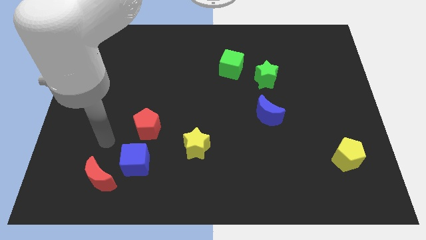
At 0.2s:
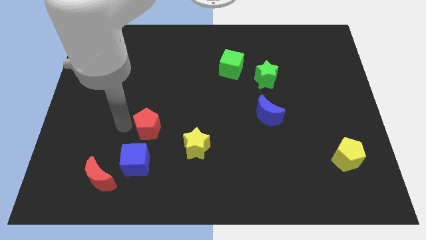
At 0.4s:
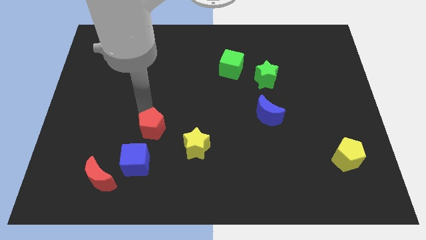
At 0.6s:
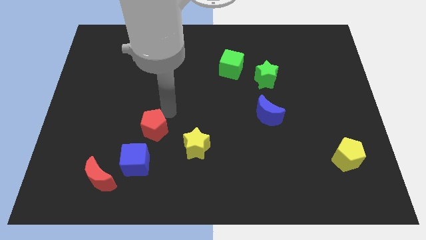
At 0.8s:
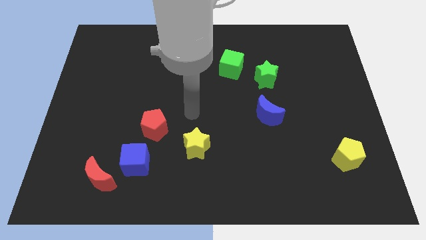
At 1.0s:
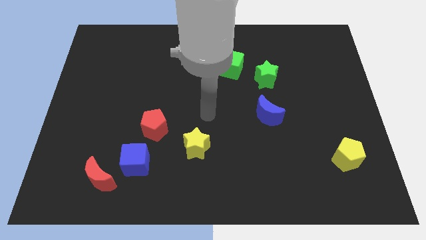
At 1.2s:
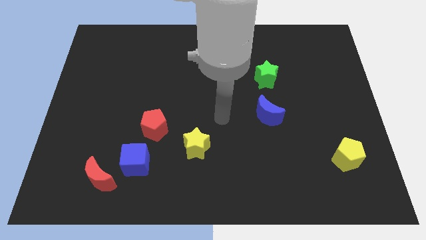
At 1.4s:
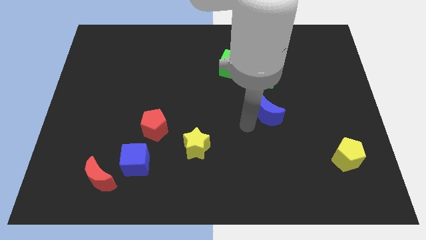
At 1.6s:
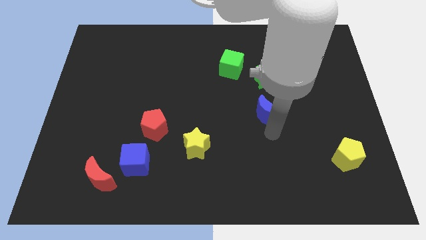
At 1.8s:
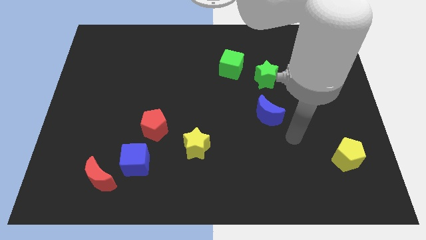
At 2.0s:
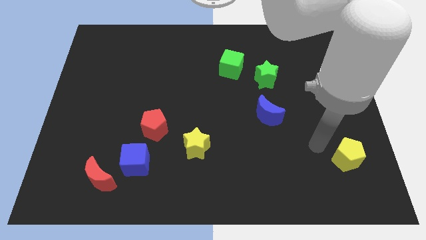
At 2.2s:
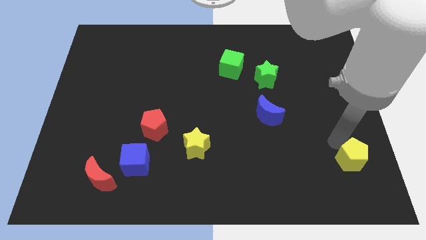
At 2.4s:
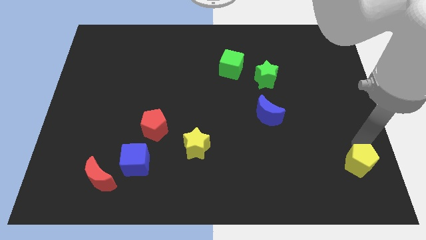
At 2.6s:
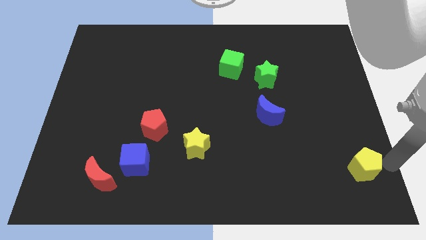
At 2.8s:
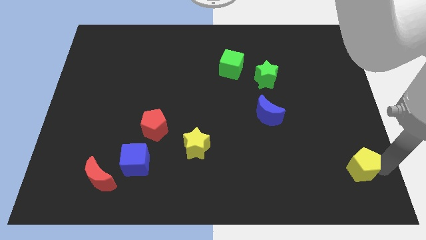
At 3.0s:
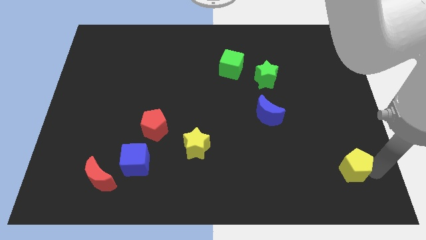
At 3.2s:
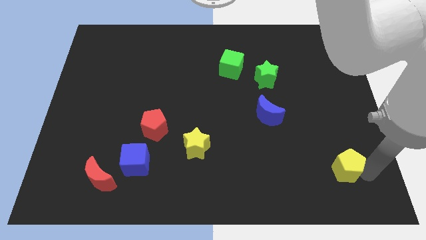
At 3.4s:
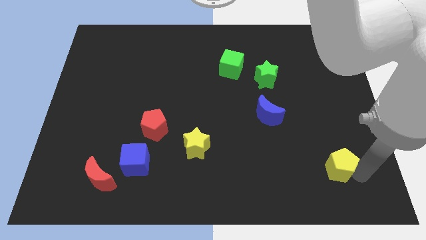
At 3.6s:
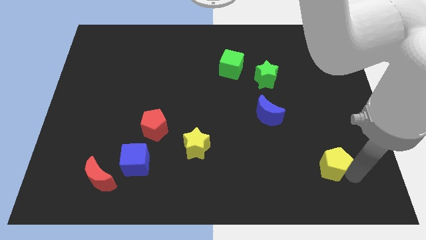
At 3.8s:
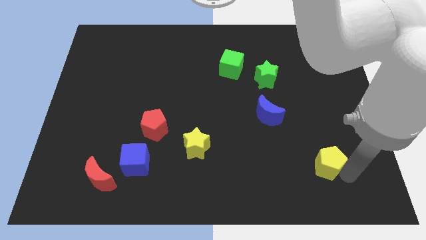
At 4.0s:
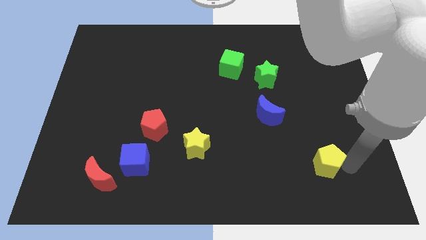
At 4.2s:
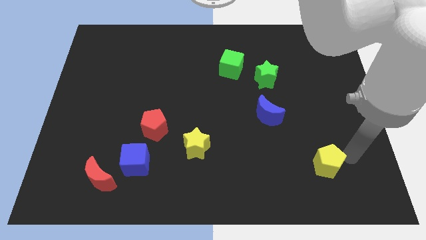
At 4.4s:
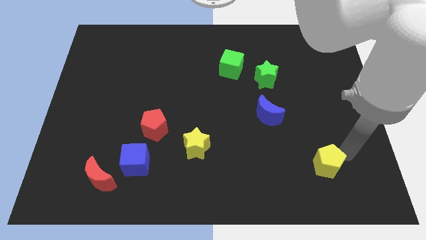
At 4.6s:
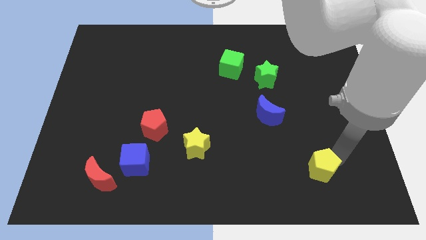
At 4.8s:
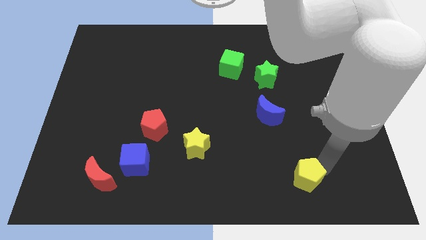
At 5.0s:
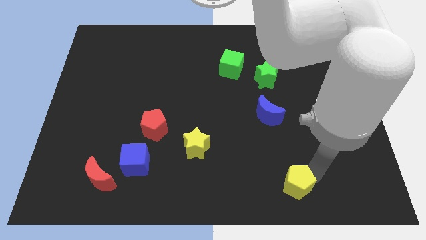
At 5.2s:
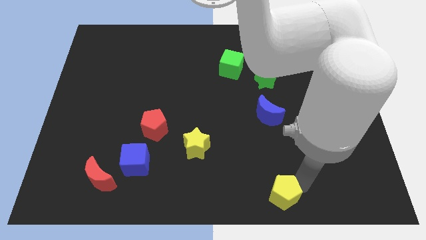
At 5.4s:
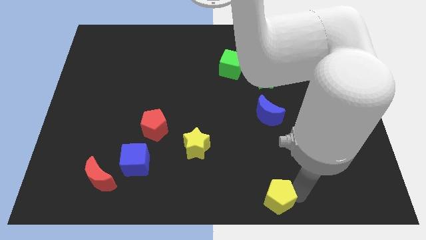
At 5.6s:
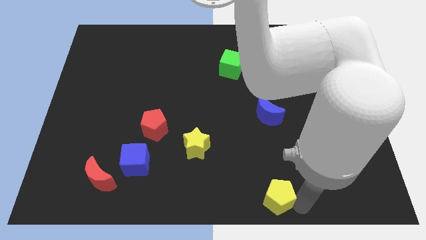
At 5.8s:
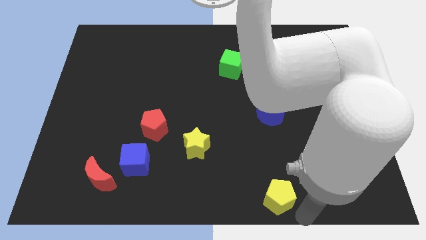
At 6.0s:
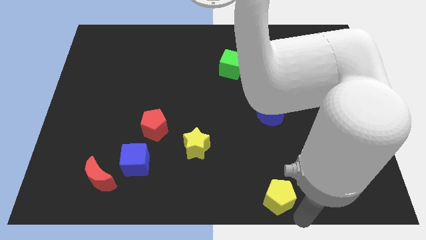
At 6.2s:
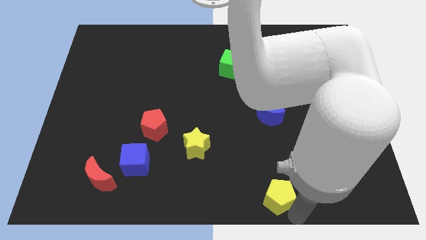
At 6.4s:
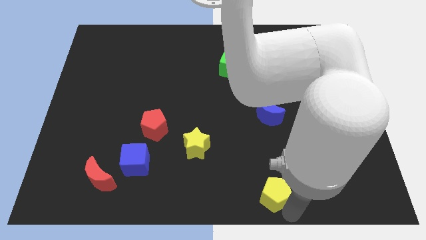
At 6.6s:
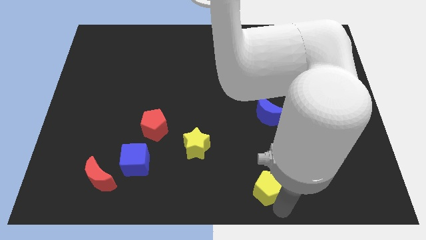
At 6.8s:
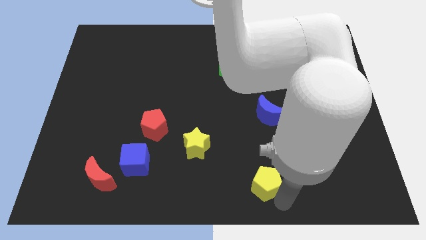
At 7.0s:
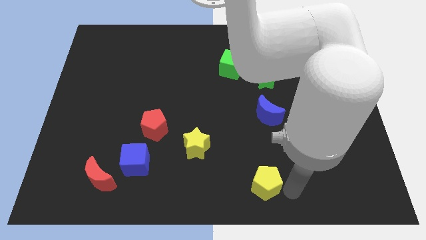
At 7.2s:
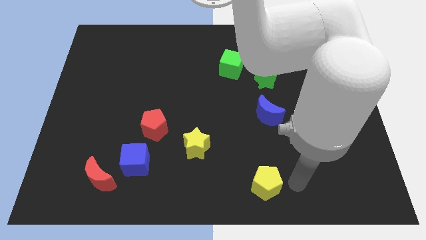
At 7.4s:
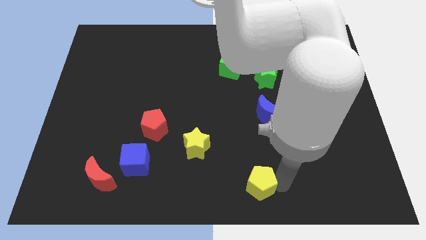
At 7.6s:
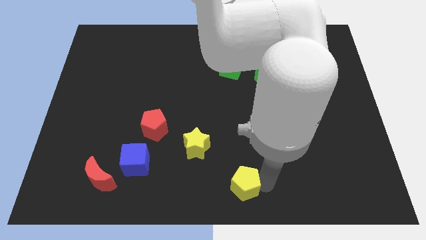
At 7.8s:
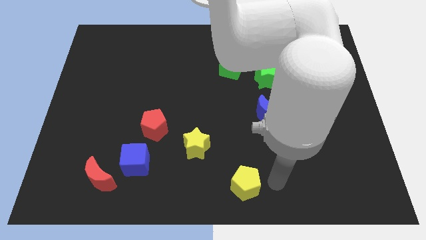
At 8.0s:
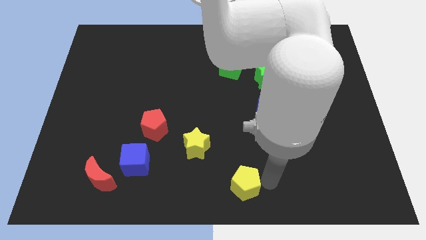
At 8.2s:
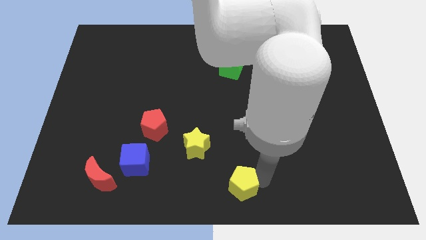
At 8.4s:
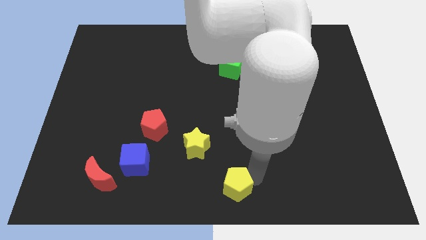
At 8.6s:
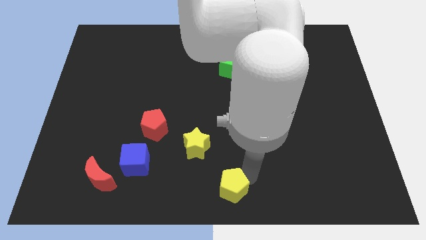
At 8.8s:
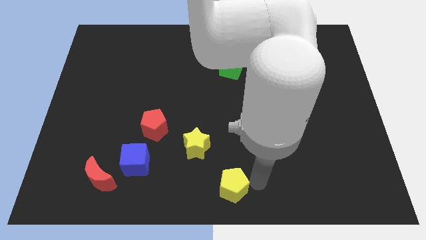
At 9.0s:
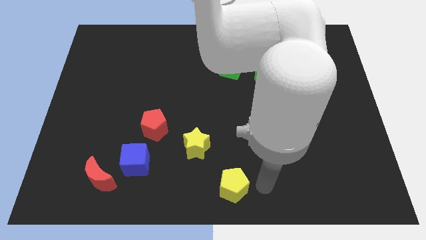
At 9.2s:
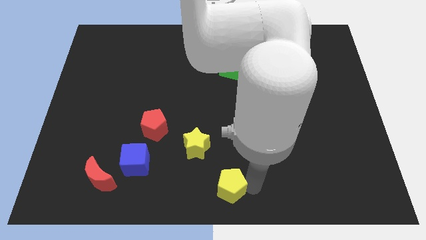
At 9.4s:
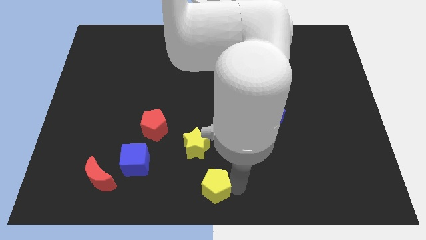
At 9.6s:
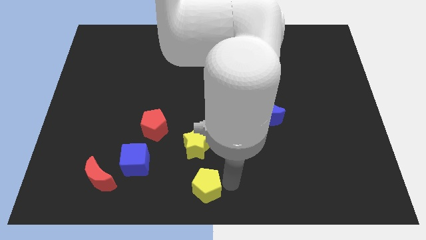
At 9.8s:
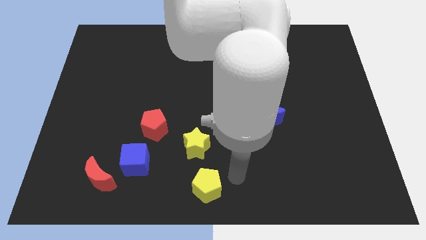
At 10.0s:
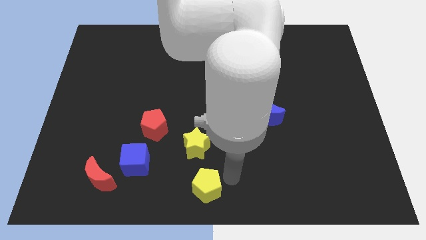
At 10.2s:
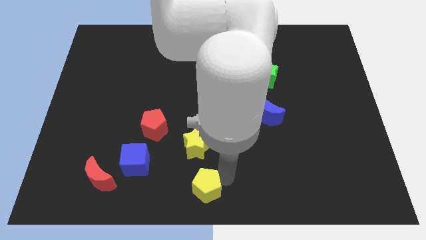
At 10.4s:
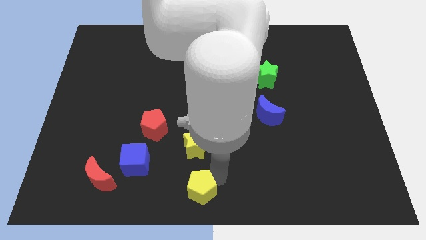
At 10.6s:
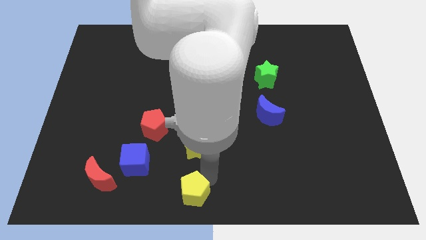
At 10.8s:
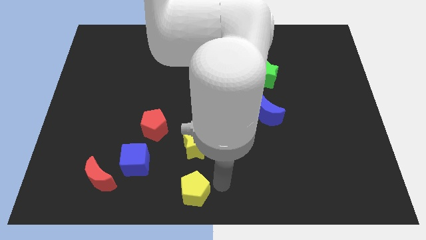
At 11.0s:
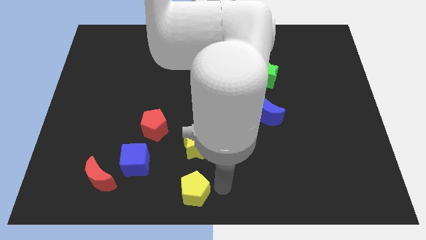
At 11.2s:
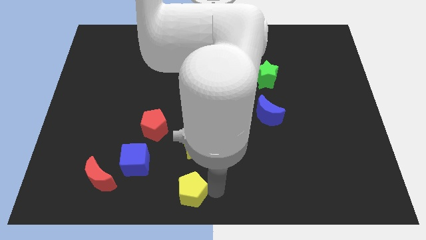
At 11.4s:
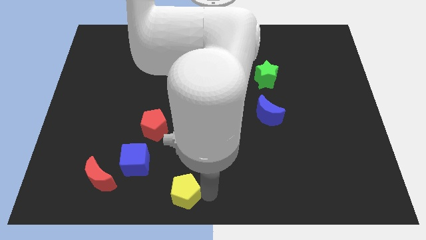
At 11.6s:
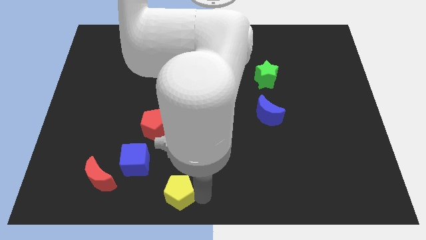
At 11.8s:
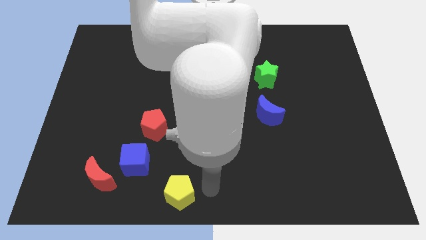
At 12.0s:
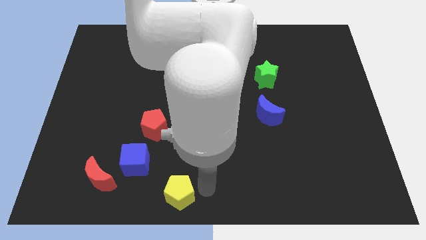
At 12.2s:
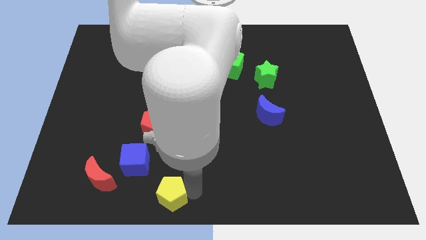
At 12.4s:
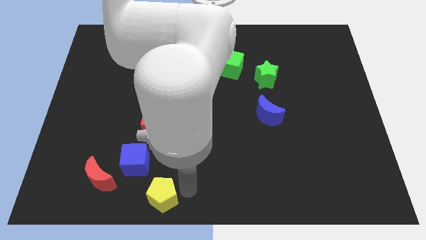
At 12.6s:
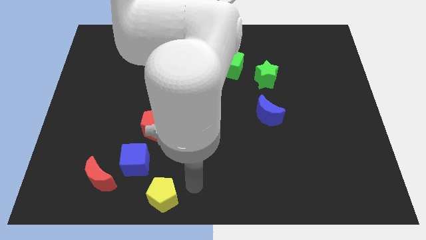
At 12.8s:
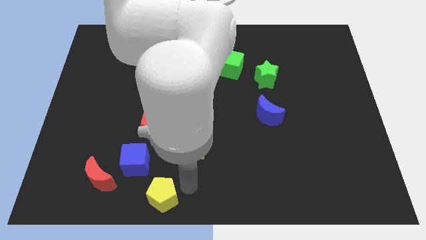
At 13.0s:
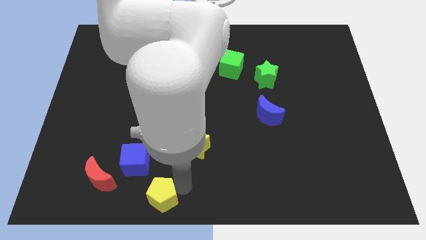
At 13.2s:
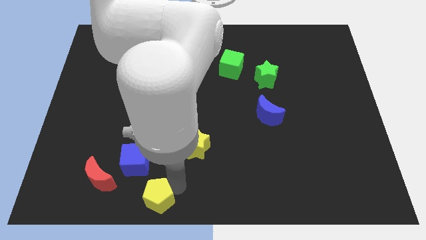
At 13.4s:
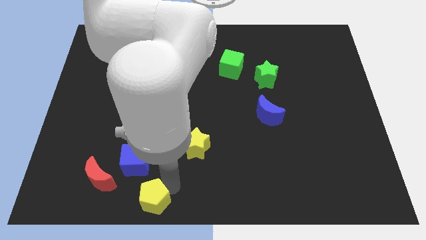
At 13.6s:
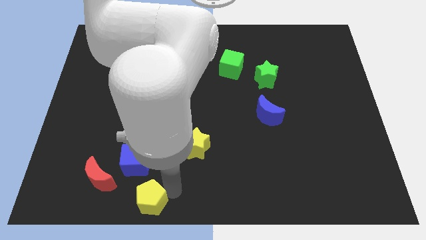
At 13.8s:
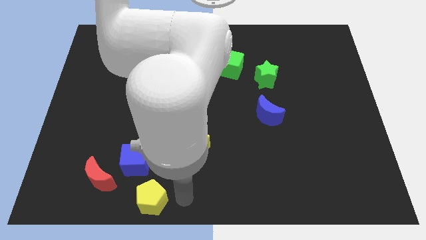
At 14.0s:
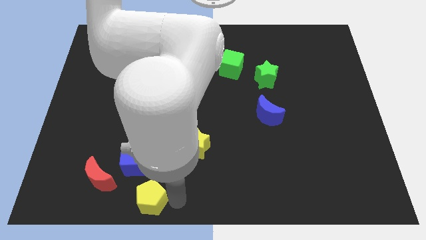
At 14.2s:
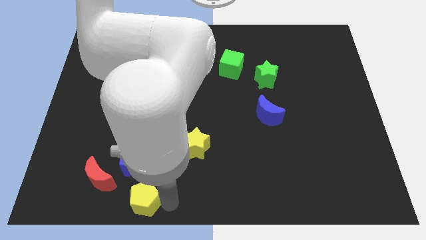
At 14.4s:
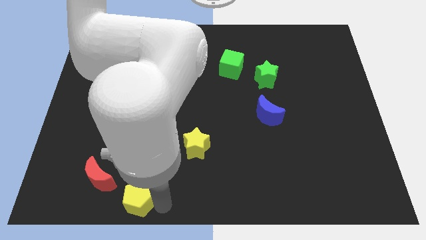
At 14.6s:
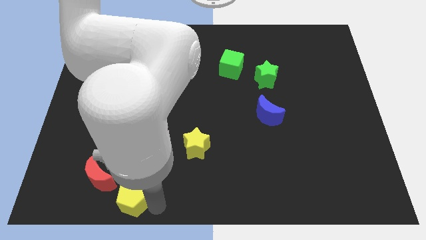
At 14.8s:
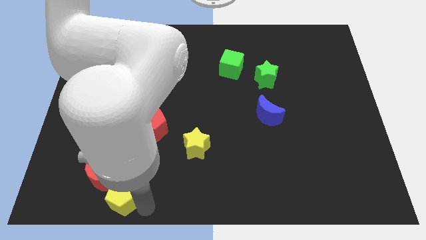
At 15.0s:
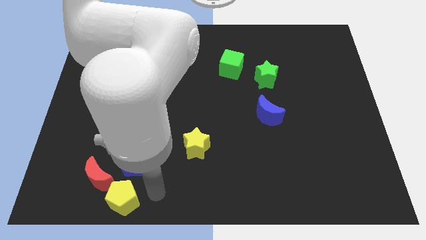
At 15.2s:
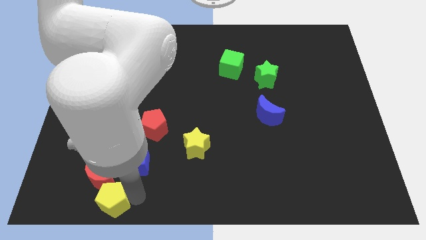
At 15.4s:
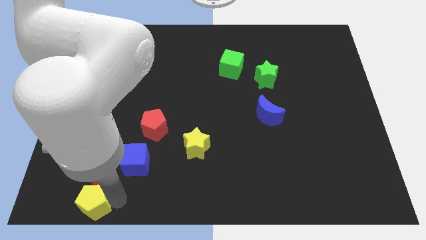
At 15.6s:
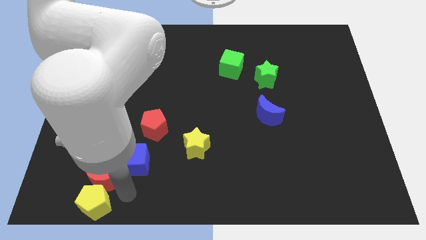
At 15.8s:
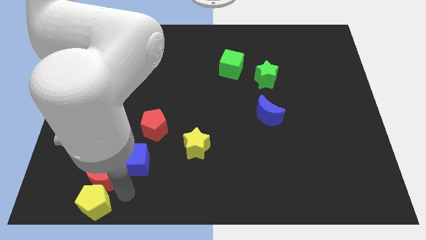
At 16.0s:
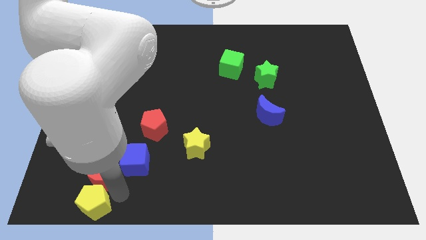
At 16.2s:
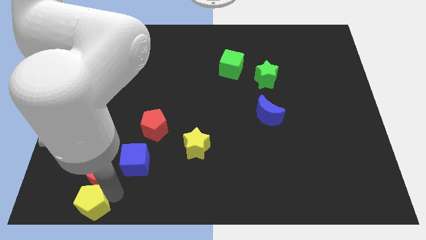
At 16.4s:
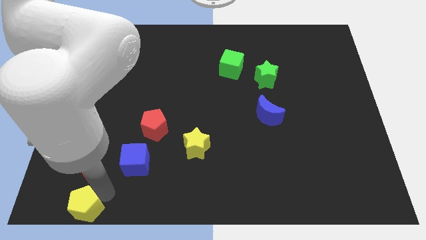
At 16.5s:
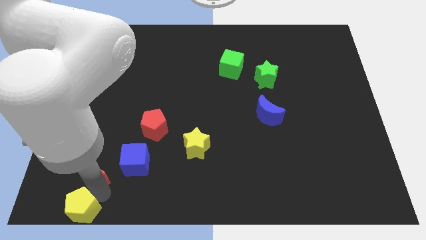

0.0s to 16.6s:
slide the yellow pentagon to the bottom left of the board
